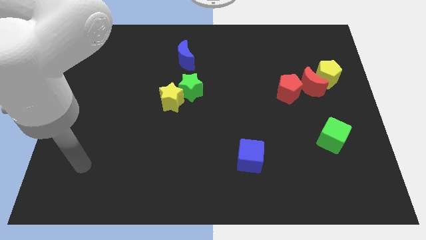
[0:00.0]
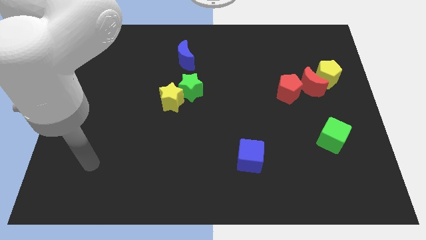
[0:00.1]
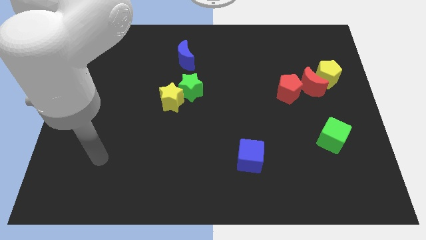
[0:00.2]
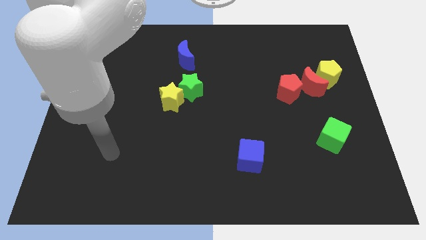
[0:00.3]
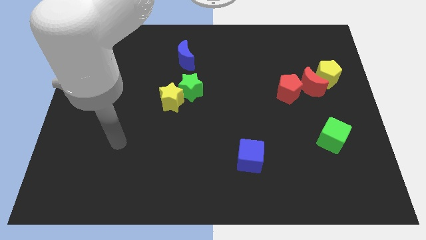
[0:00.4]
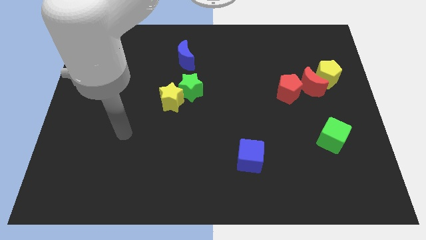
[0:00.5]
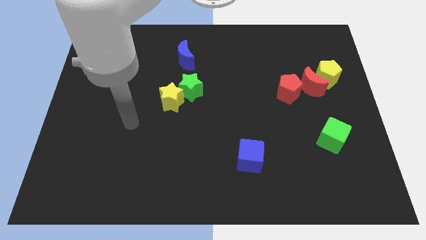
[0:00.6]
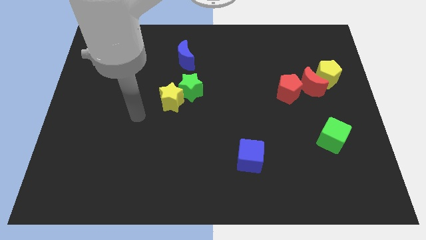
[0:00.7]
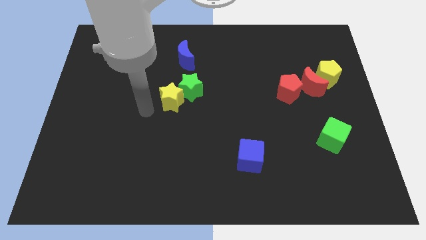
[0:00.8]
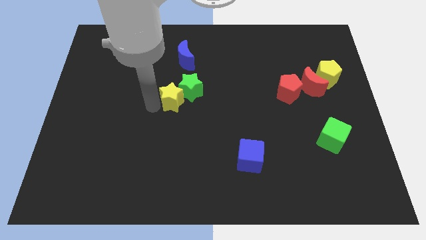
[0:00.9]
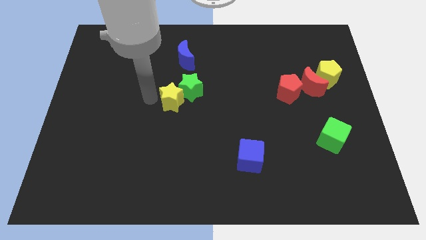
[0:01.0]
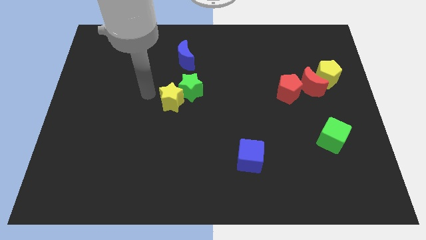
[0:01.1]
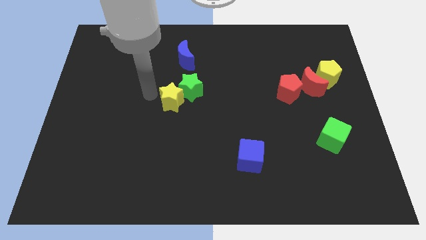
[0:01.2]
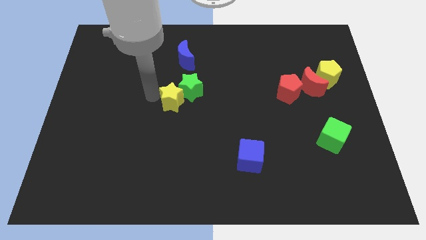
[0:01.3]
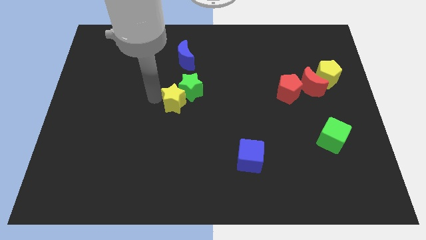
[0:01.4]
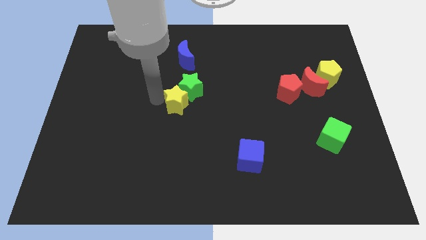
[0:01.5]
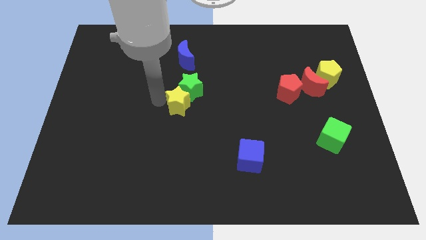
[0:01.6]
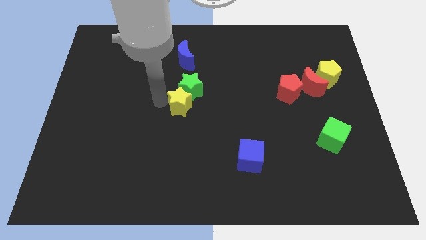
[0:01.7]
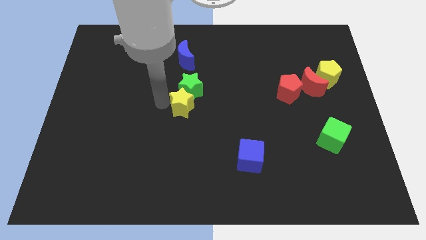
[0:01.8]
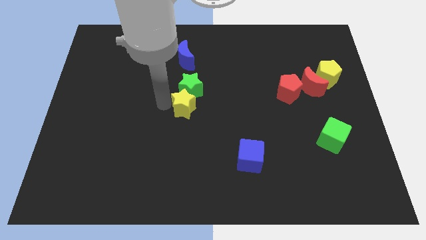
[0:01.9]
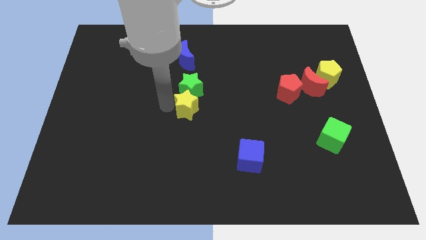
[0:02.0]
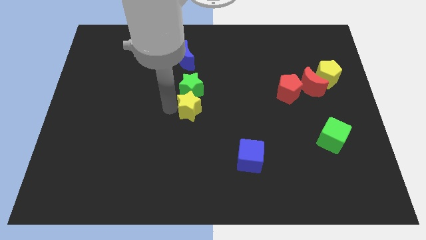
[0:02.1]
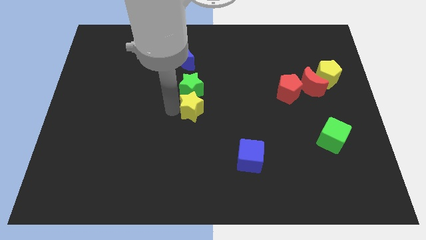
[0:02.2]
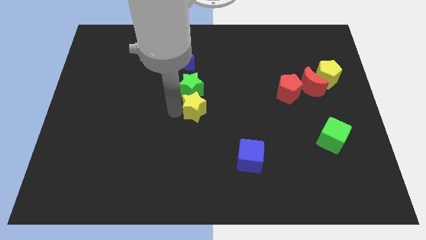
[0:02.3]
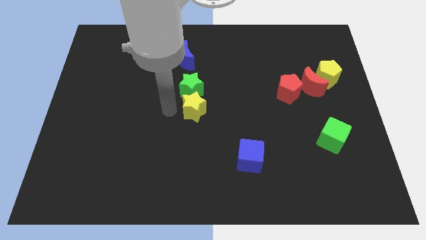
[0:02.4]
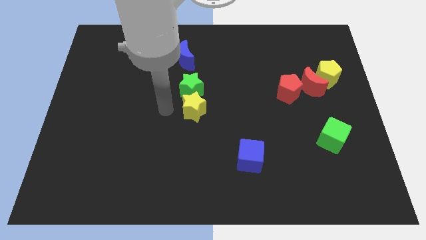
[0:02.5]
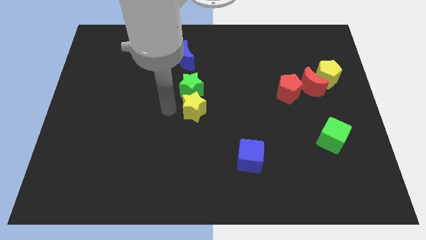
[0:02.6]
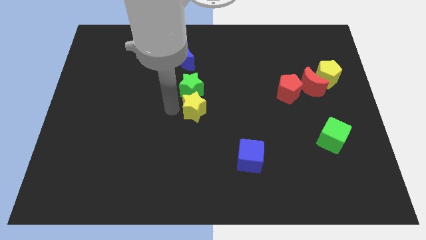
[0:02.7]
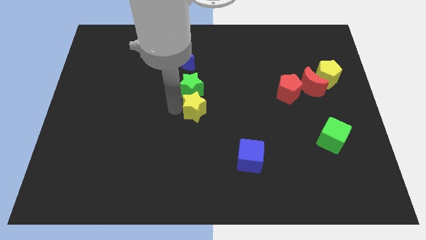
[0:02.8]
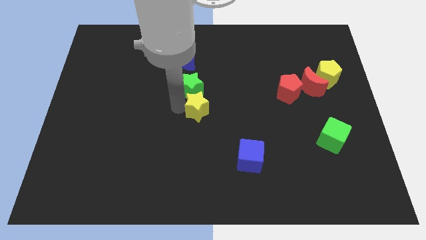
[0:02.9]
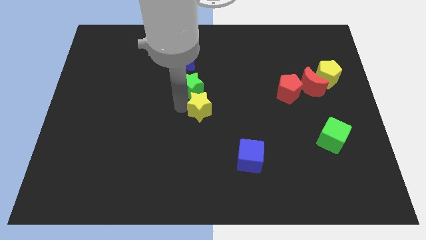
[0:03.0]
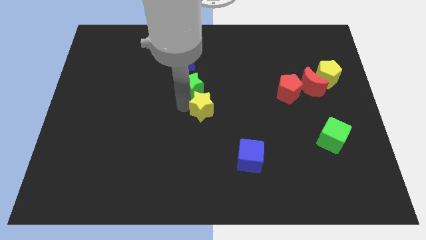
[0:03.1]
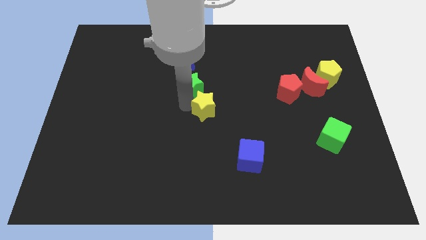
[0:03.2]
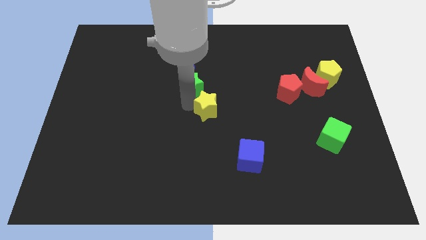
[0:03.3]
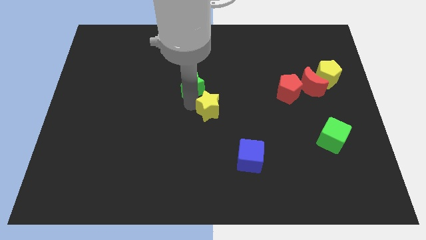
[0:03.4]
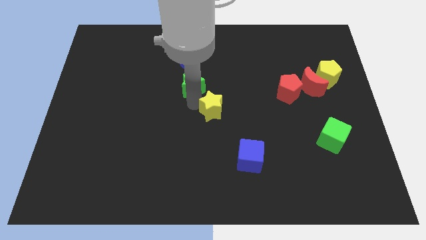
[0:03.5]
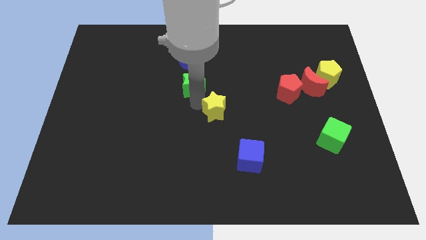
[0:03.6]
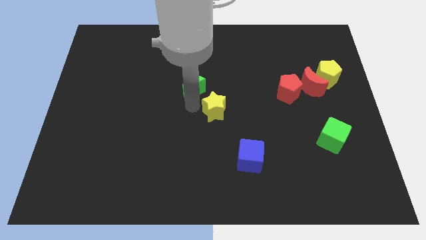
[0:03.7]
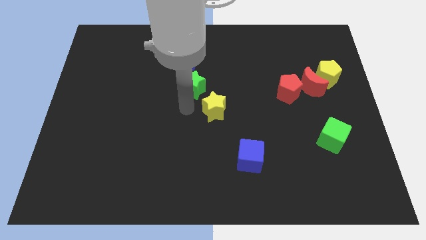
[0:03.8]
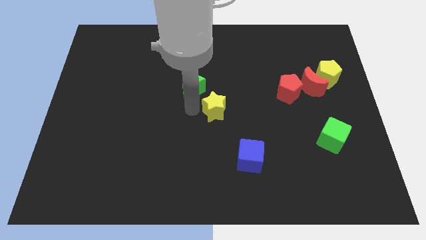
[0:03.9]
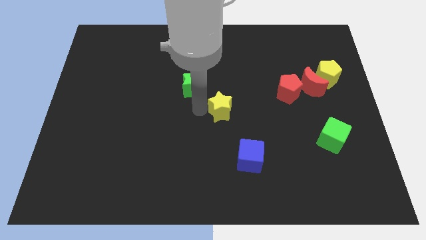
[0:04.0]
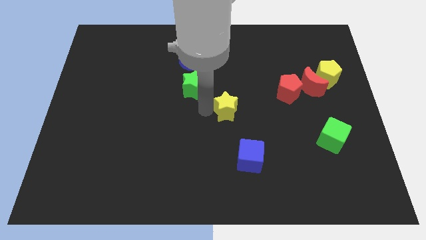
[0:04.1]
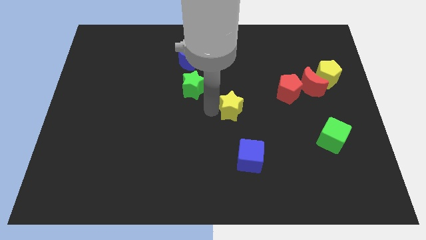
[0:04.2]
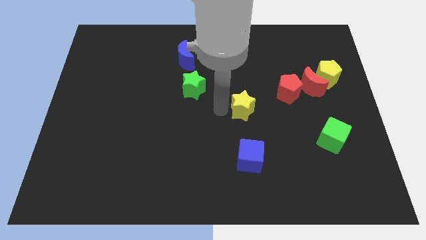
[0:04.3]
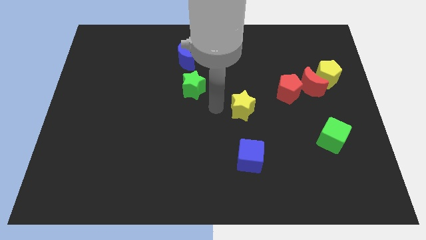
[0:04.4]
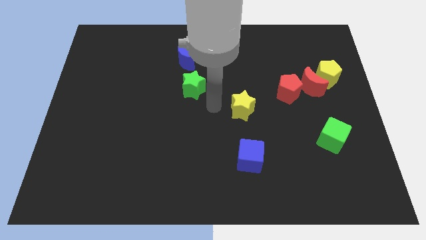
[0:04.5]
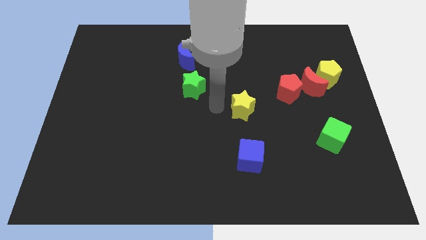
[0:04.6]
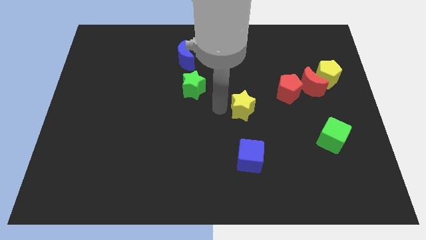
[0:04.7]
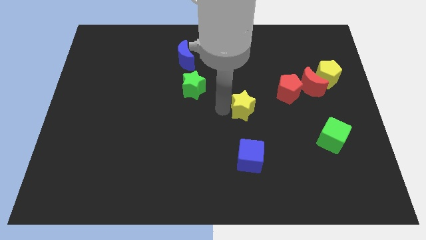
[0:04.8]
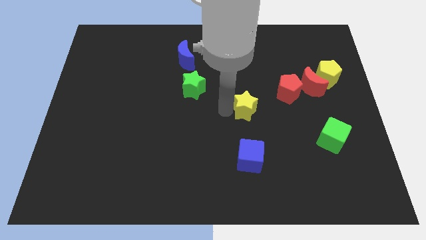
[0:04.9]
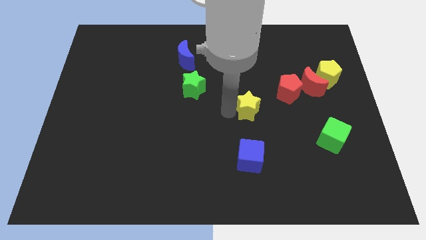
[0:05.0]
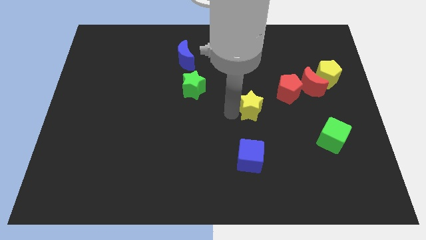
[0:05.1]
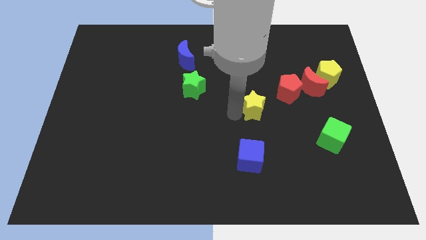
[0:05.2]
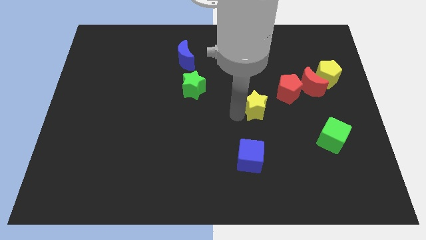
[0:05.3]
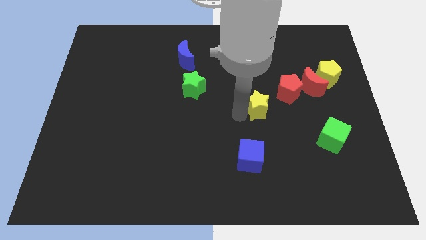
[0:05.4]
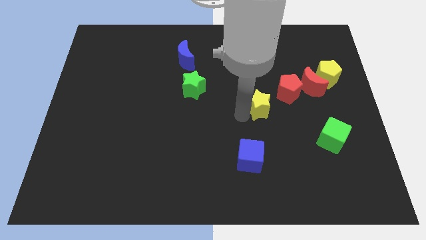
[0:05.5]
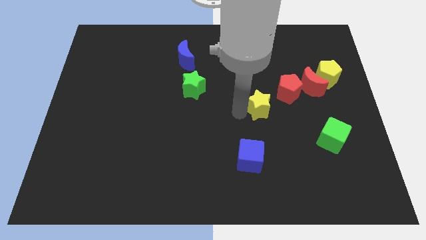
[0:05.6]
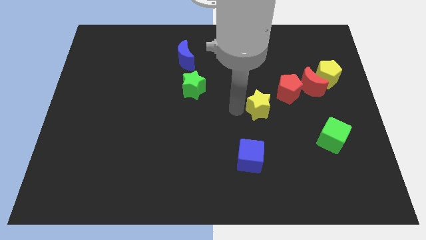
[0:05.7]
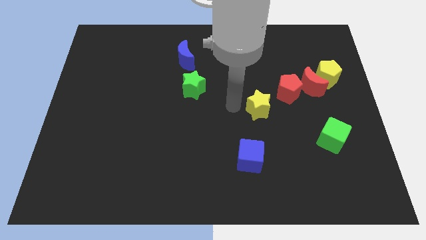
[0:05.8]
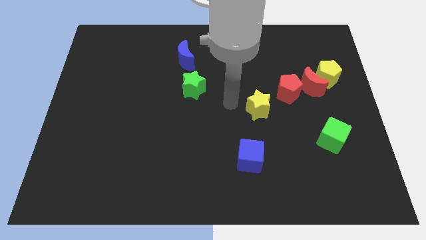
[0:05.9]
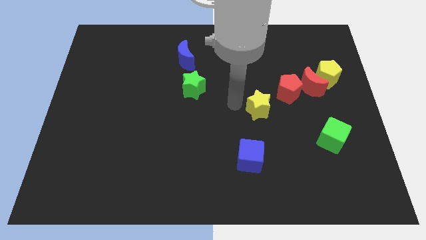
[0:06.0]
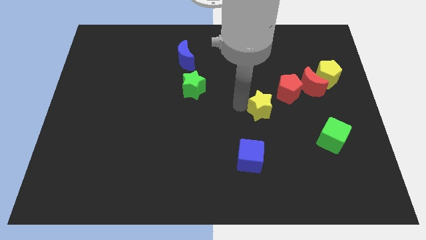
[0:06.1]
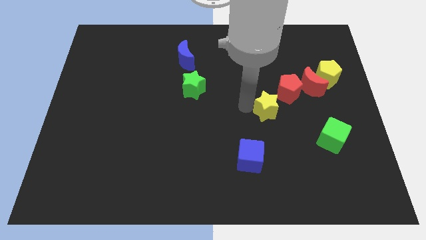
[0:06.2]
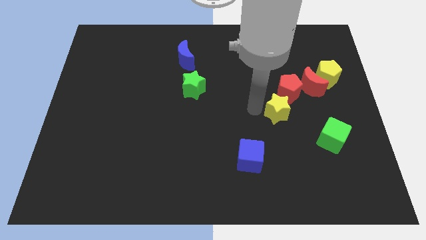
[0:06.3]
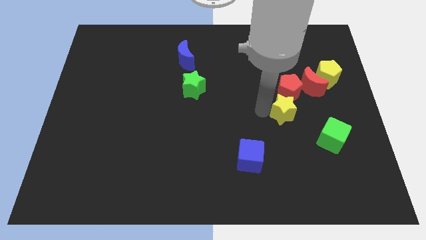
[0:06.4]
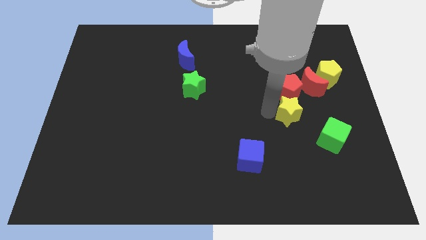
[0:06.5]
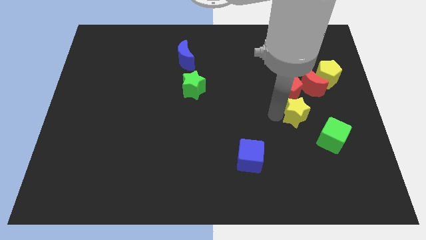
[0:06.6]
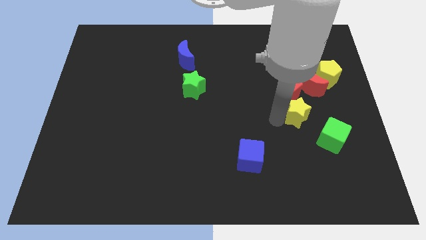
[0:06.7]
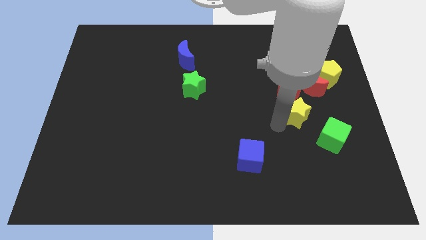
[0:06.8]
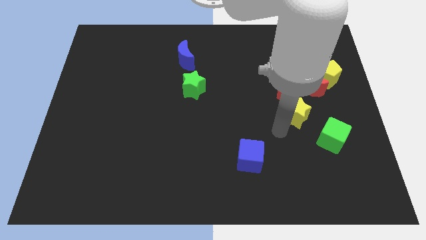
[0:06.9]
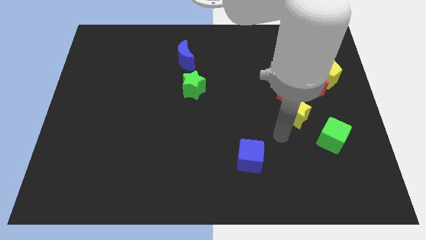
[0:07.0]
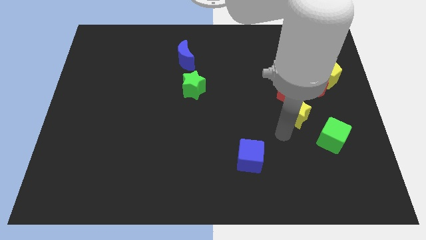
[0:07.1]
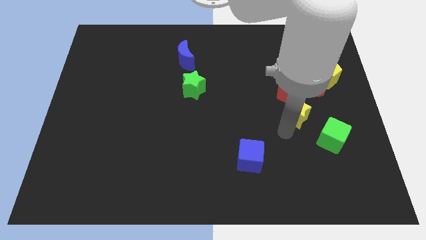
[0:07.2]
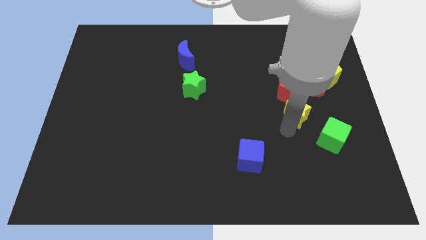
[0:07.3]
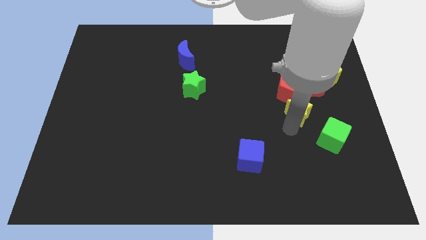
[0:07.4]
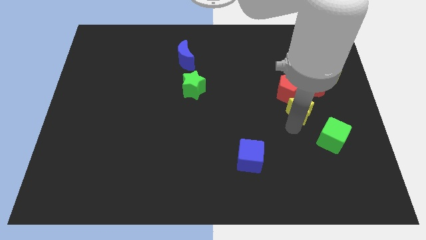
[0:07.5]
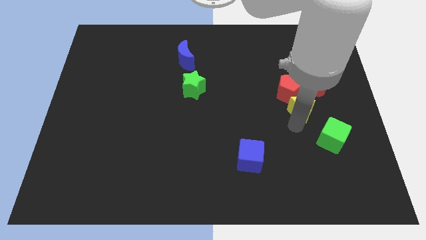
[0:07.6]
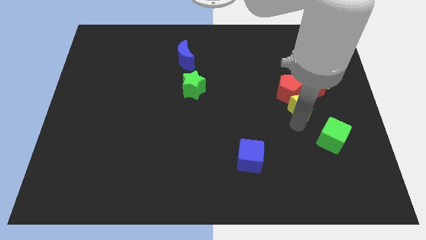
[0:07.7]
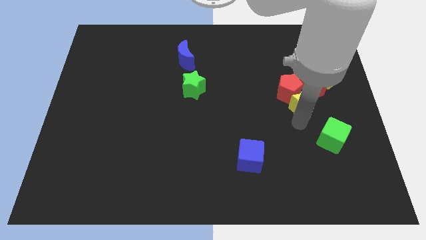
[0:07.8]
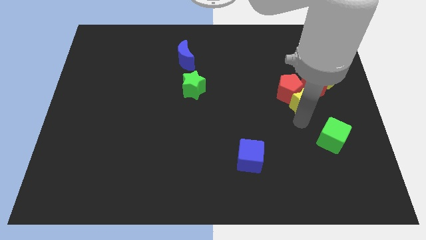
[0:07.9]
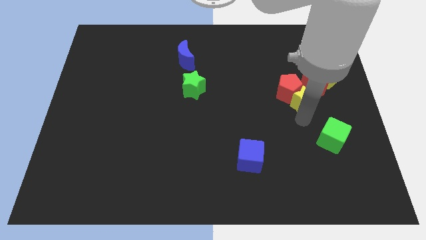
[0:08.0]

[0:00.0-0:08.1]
push the yellow star next to the red moon
